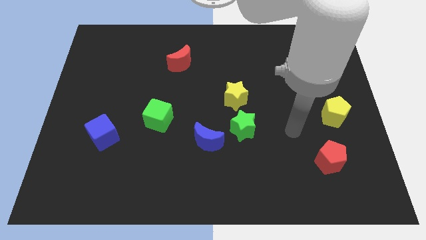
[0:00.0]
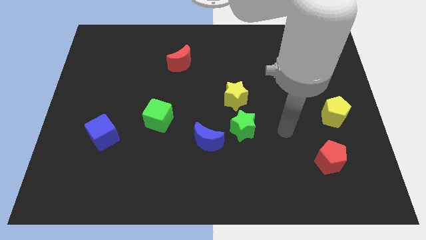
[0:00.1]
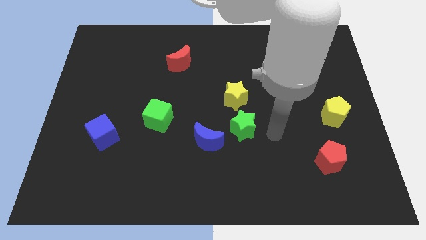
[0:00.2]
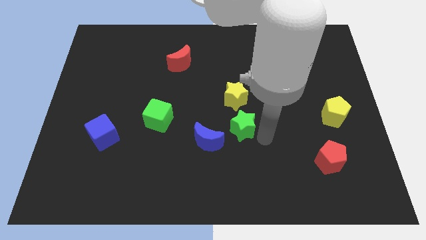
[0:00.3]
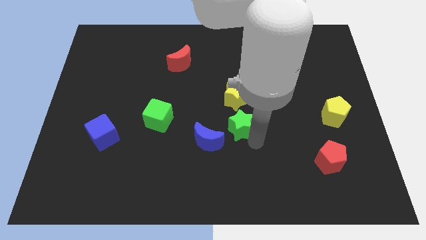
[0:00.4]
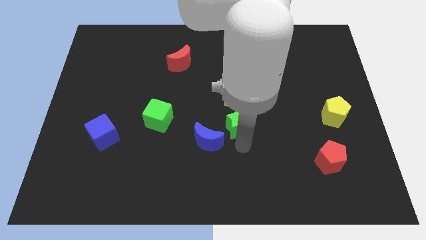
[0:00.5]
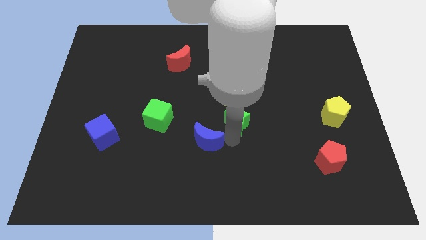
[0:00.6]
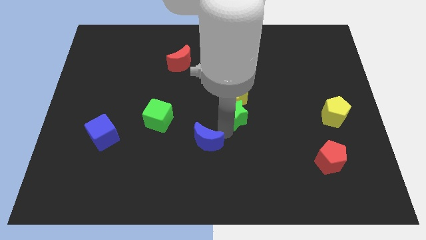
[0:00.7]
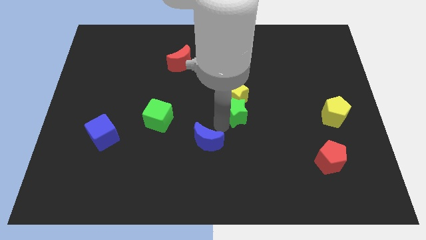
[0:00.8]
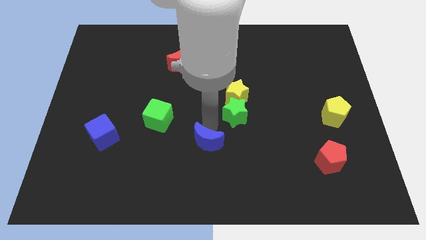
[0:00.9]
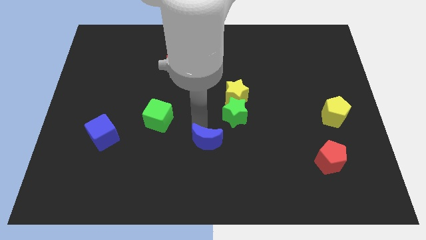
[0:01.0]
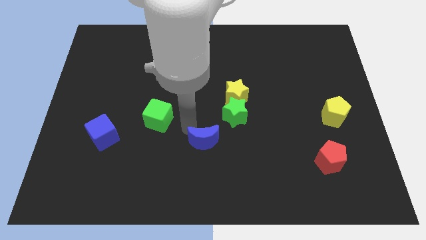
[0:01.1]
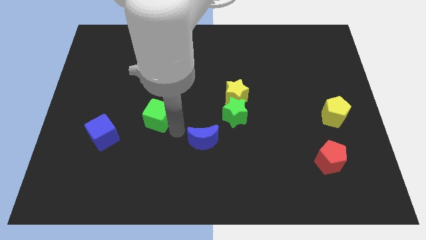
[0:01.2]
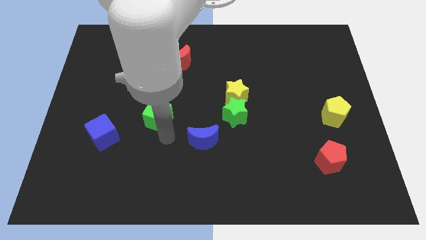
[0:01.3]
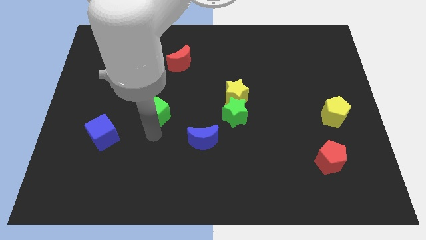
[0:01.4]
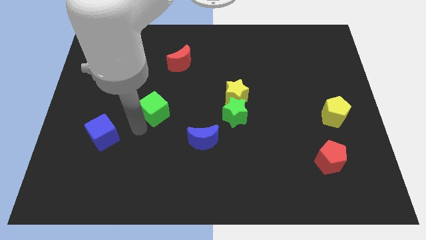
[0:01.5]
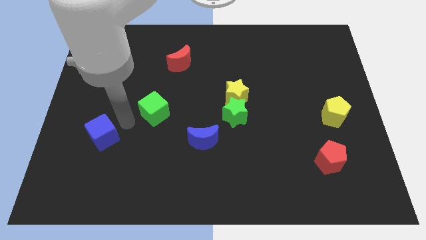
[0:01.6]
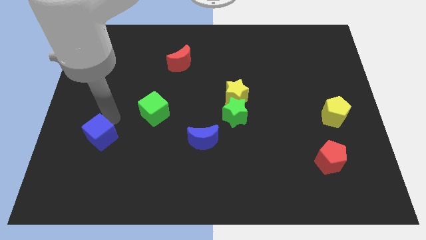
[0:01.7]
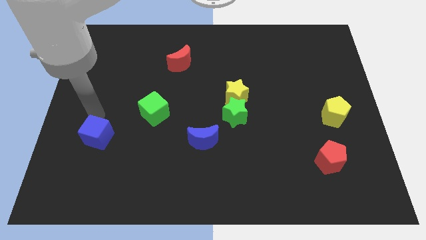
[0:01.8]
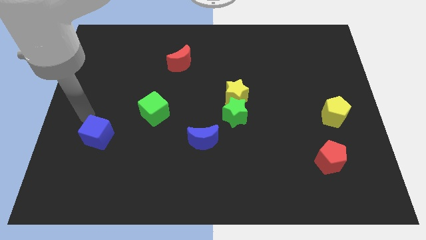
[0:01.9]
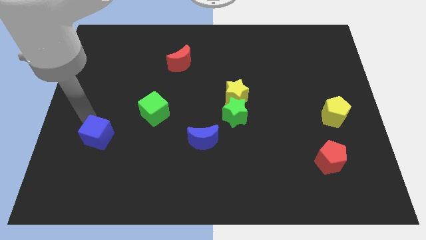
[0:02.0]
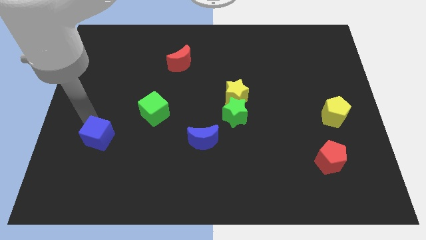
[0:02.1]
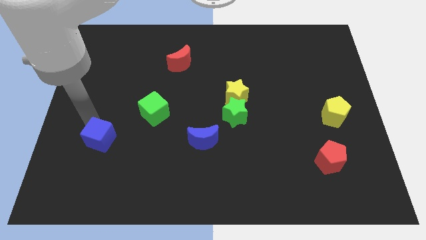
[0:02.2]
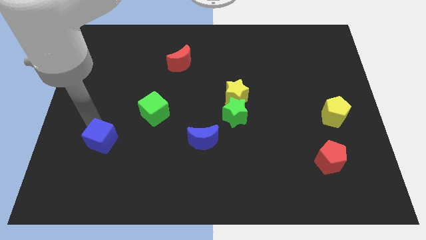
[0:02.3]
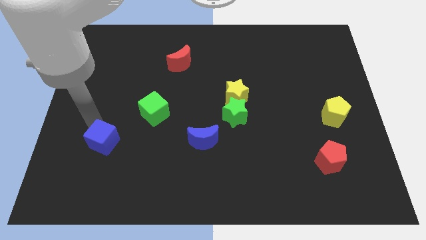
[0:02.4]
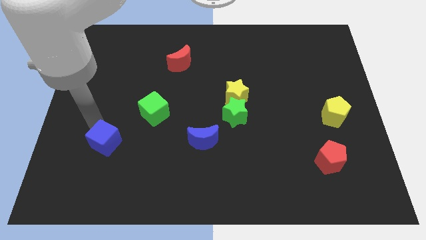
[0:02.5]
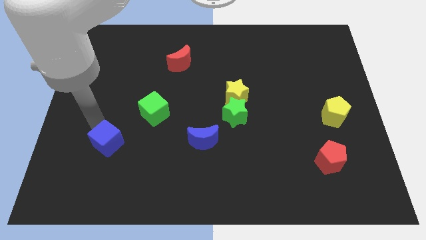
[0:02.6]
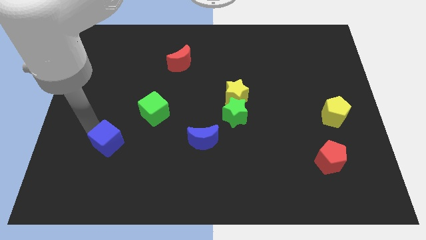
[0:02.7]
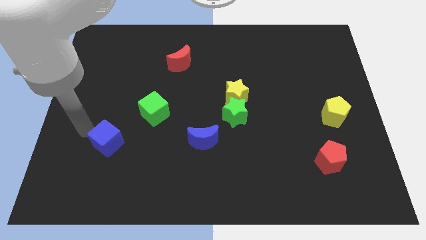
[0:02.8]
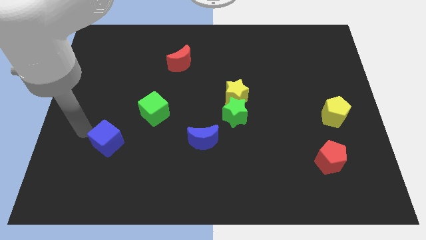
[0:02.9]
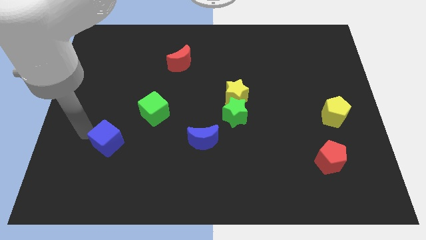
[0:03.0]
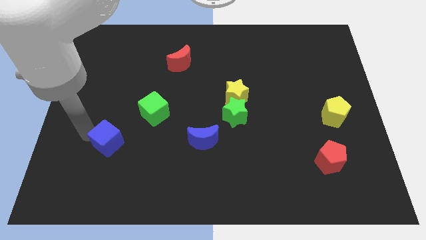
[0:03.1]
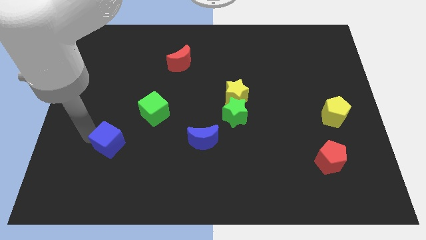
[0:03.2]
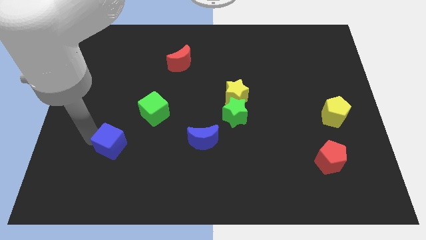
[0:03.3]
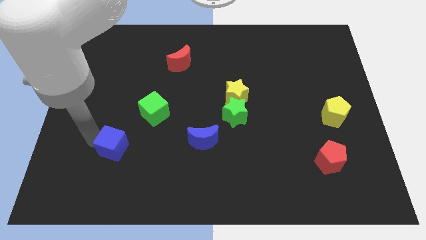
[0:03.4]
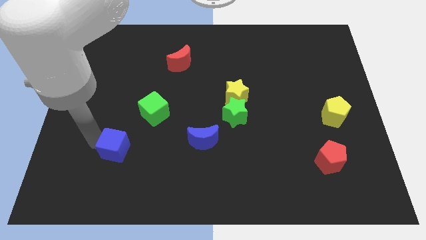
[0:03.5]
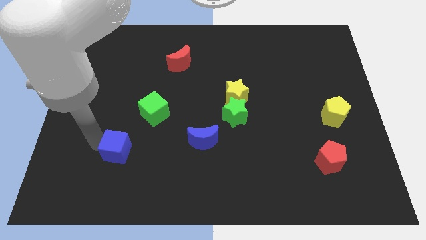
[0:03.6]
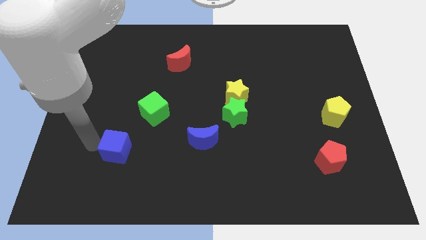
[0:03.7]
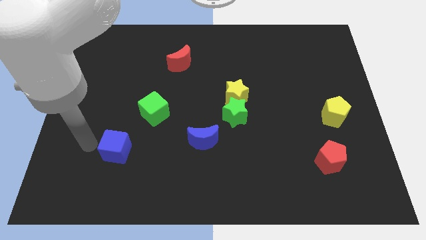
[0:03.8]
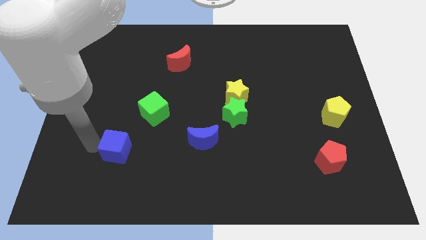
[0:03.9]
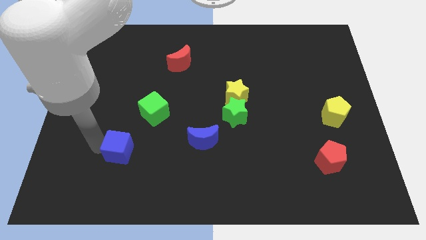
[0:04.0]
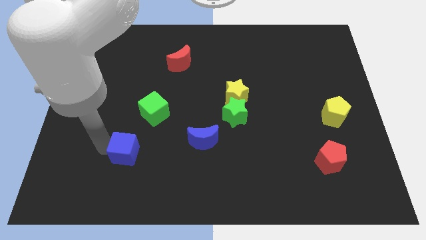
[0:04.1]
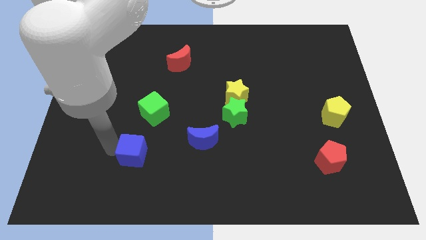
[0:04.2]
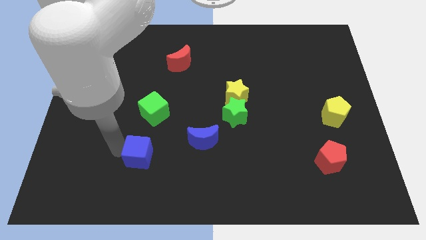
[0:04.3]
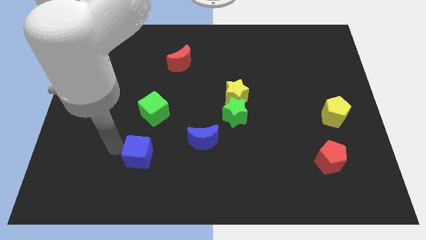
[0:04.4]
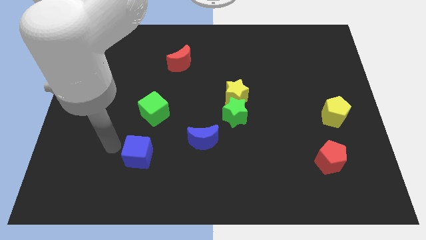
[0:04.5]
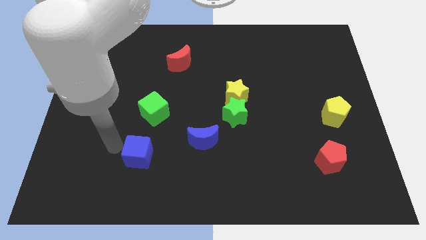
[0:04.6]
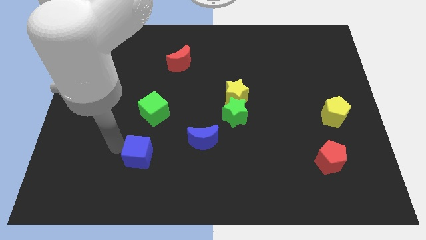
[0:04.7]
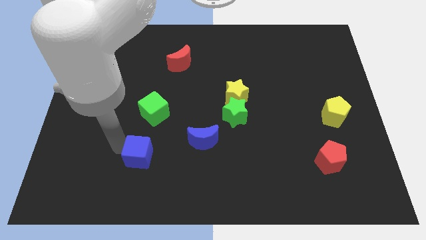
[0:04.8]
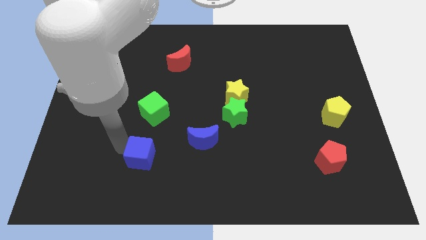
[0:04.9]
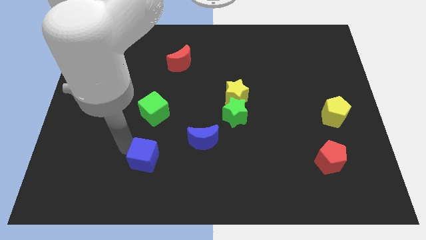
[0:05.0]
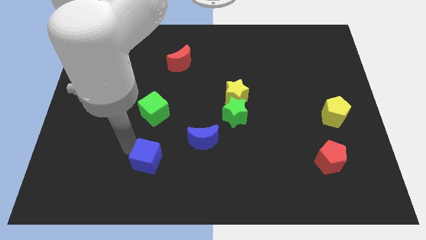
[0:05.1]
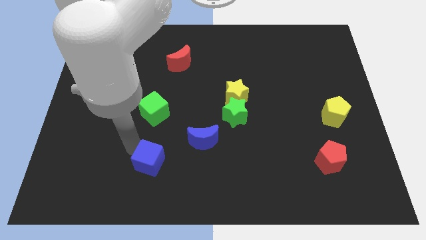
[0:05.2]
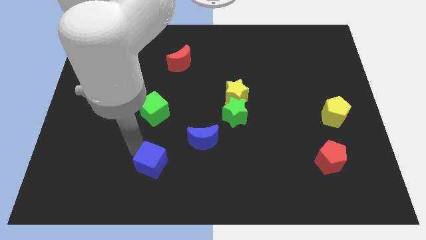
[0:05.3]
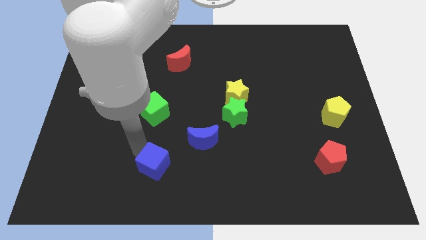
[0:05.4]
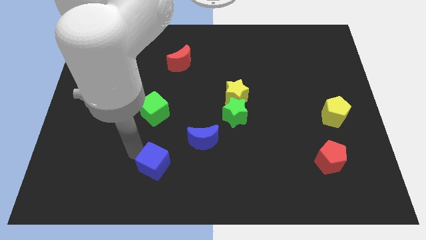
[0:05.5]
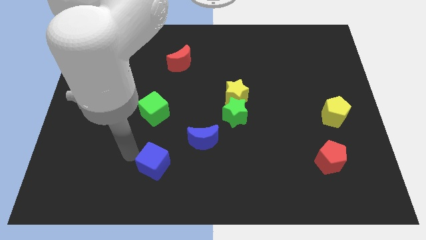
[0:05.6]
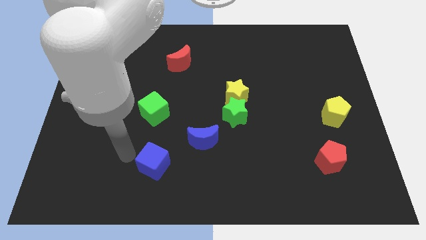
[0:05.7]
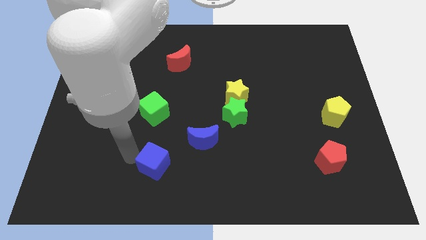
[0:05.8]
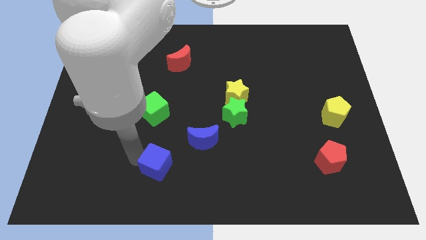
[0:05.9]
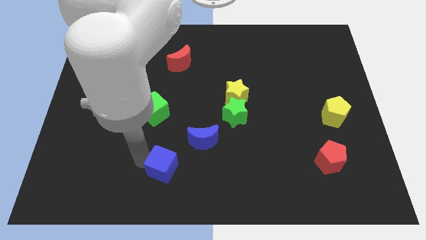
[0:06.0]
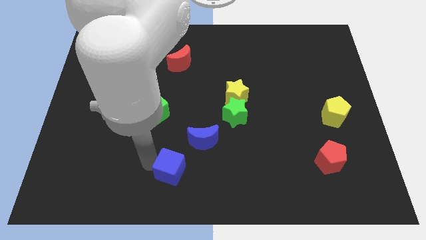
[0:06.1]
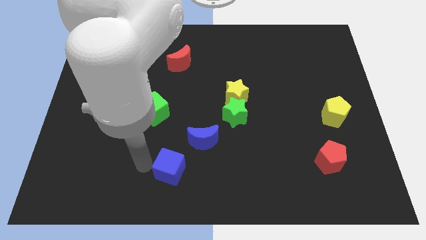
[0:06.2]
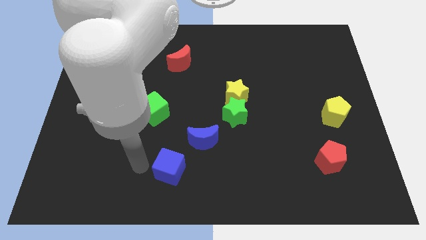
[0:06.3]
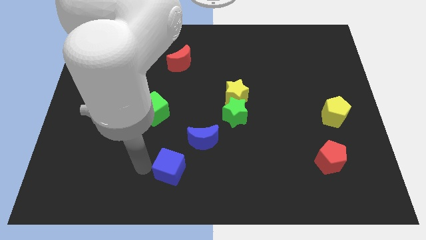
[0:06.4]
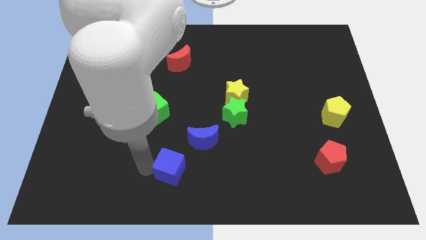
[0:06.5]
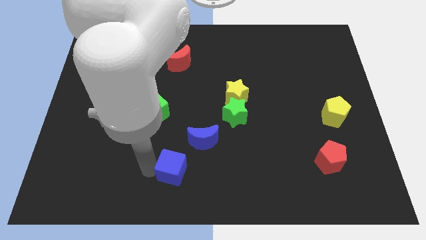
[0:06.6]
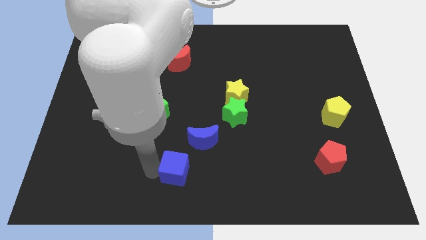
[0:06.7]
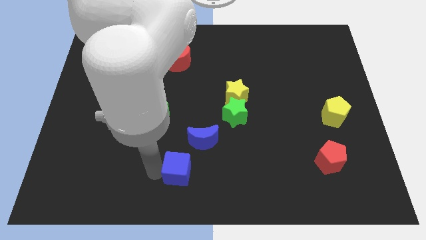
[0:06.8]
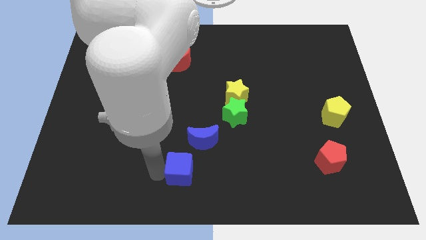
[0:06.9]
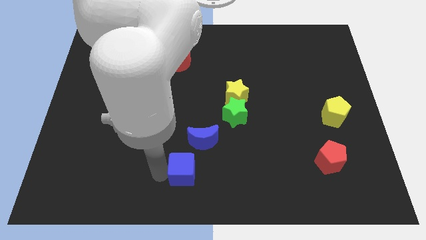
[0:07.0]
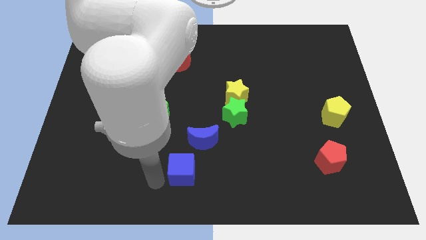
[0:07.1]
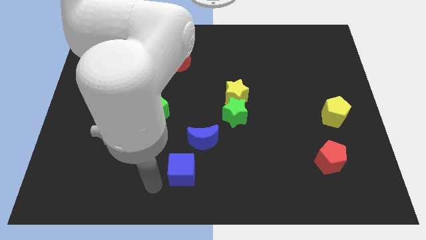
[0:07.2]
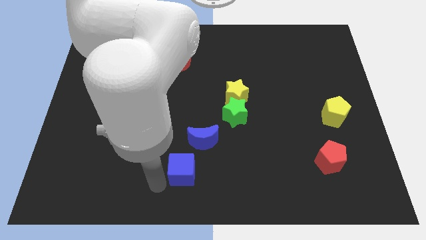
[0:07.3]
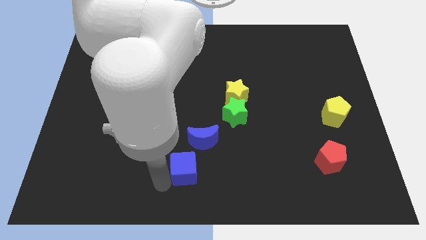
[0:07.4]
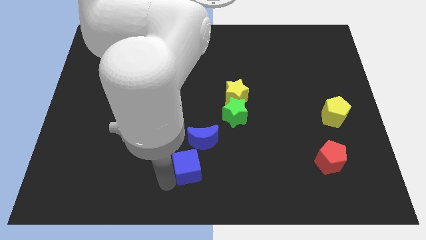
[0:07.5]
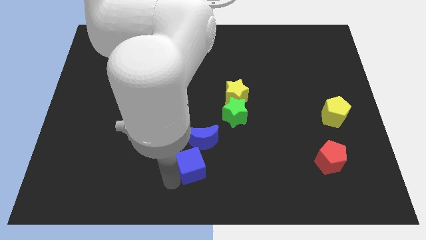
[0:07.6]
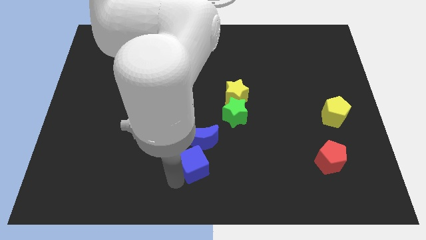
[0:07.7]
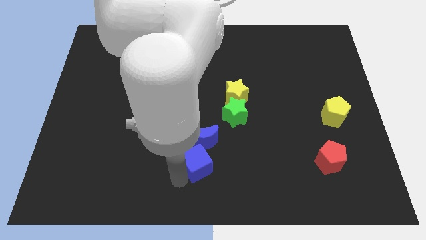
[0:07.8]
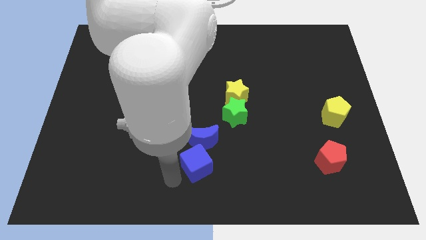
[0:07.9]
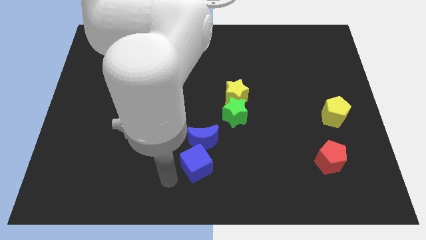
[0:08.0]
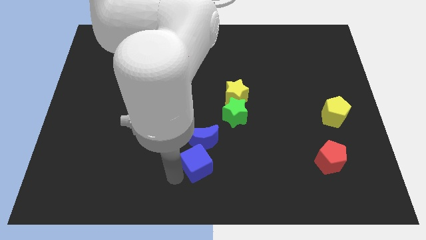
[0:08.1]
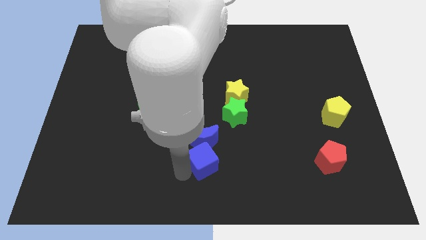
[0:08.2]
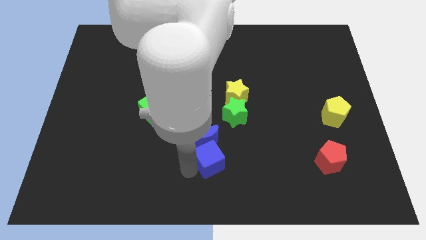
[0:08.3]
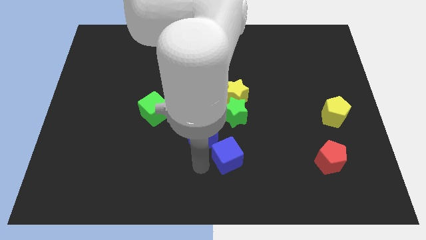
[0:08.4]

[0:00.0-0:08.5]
push the blue cube to the right of the blue moon
